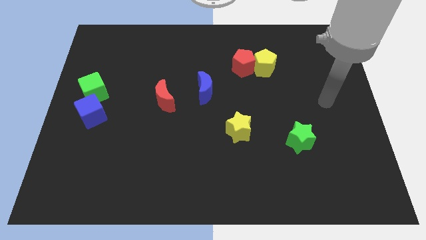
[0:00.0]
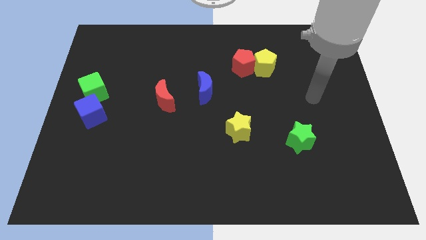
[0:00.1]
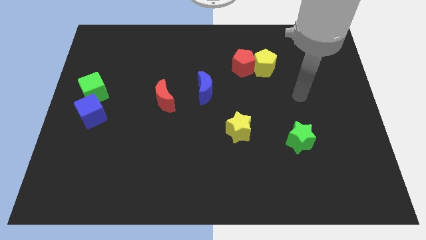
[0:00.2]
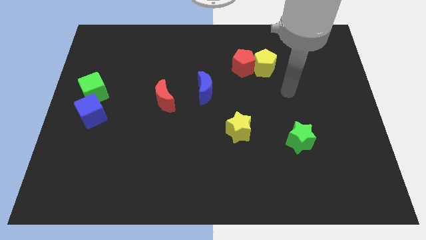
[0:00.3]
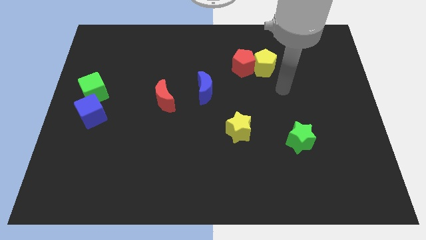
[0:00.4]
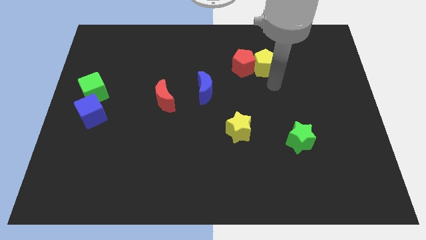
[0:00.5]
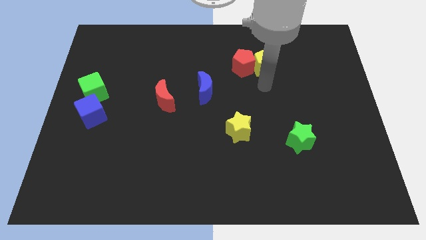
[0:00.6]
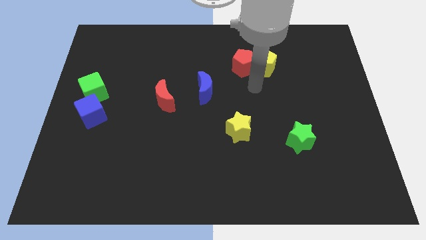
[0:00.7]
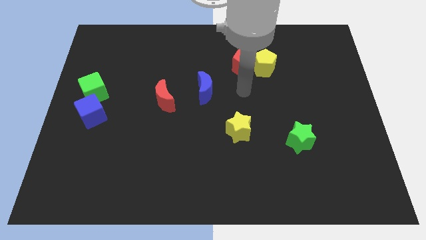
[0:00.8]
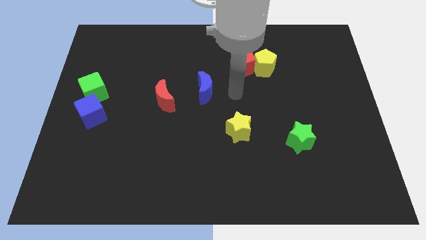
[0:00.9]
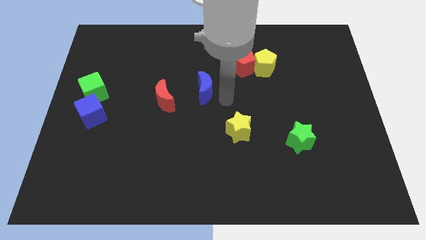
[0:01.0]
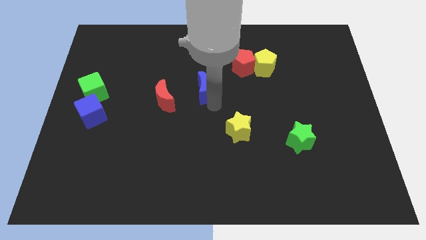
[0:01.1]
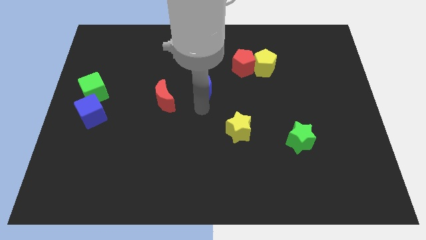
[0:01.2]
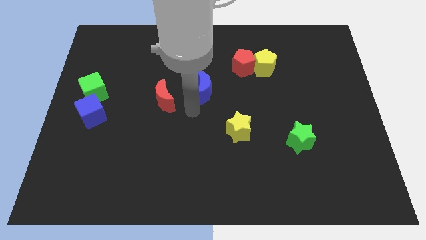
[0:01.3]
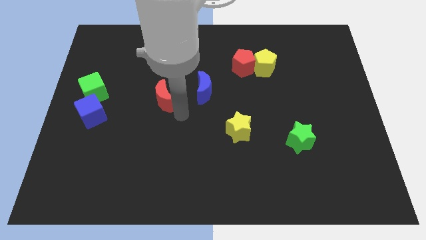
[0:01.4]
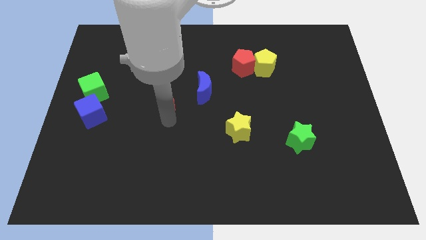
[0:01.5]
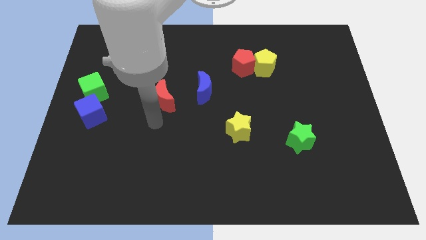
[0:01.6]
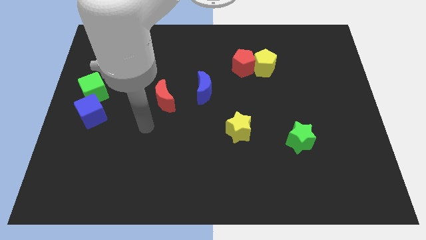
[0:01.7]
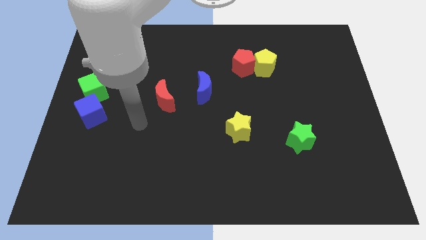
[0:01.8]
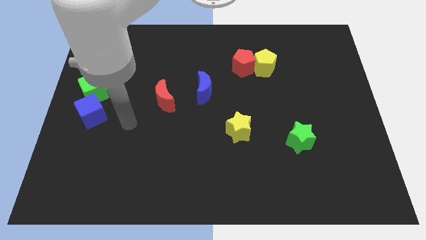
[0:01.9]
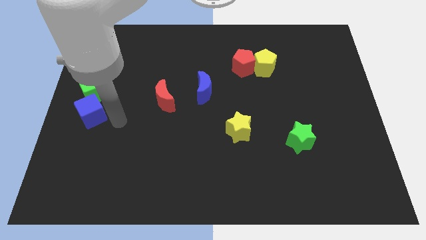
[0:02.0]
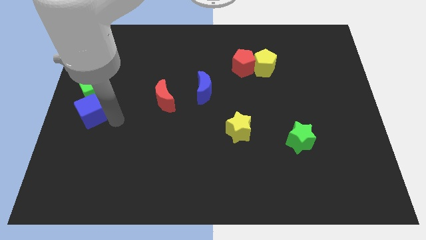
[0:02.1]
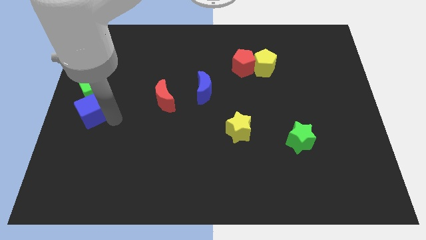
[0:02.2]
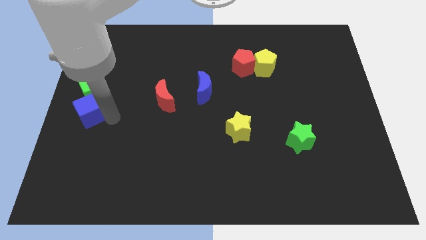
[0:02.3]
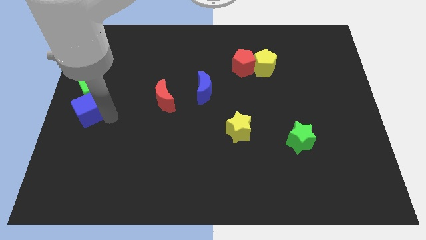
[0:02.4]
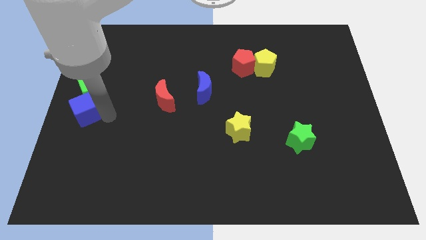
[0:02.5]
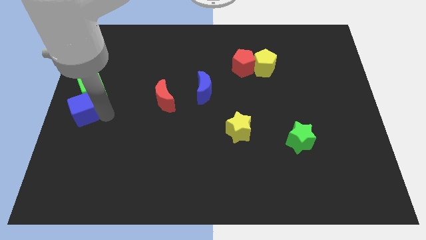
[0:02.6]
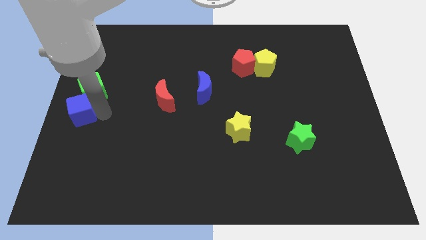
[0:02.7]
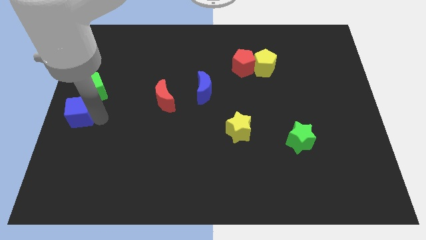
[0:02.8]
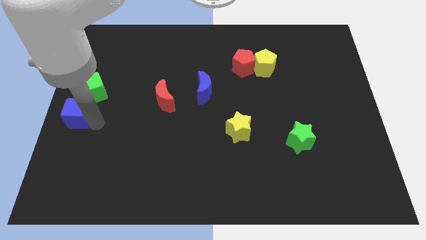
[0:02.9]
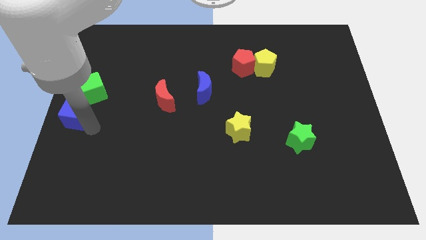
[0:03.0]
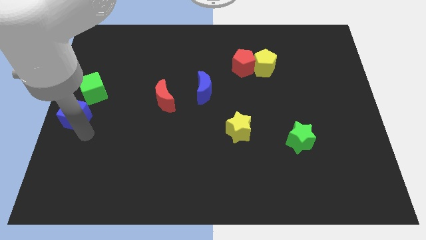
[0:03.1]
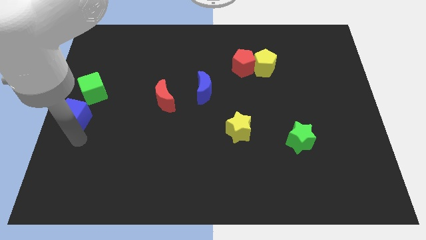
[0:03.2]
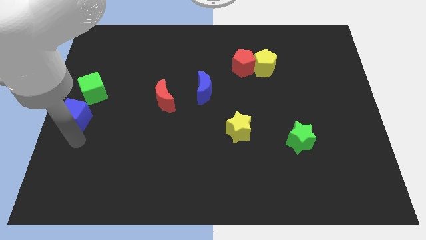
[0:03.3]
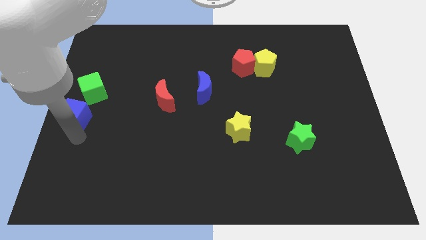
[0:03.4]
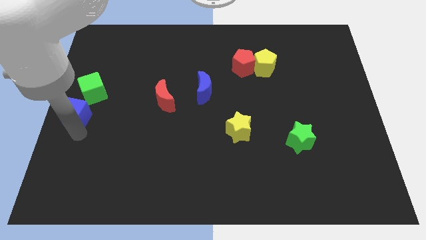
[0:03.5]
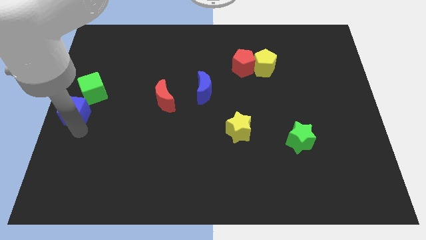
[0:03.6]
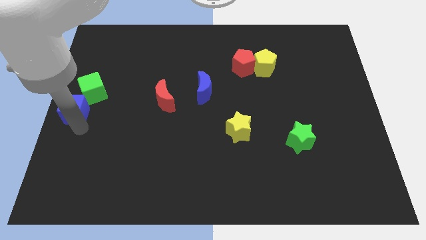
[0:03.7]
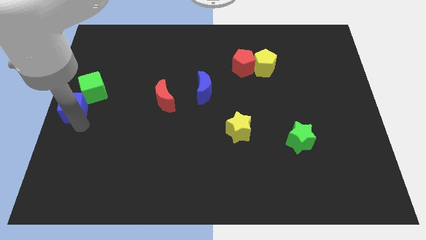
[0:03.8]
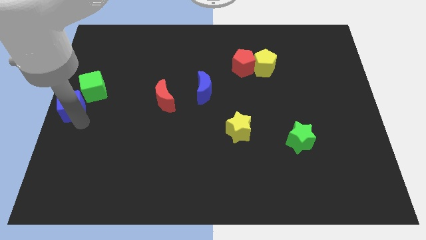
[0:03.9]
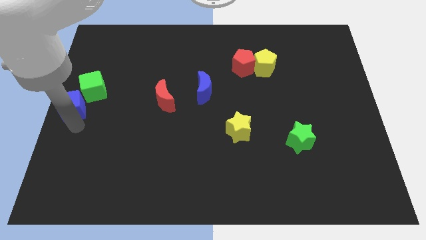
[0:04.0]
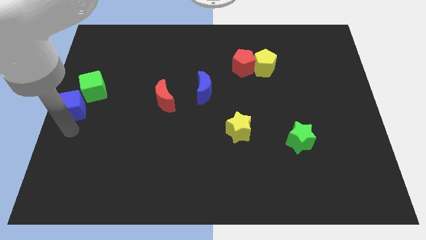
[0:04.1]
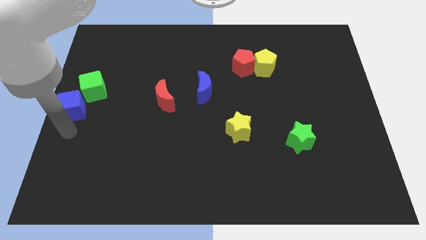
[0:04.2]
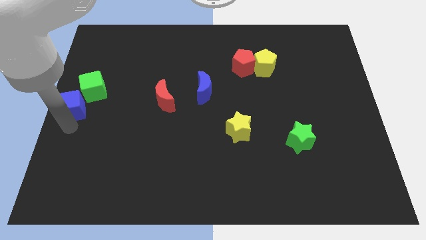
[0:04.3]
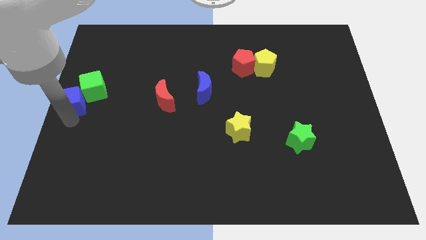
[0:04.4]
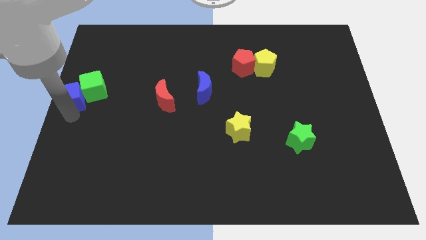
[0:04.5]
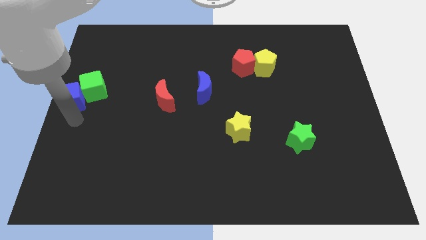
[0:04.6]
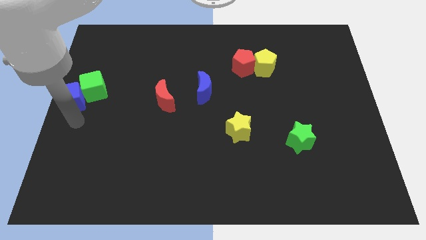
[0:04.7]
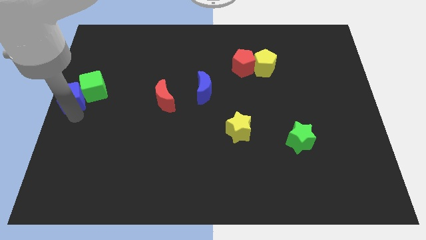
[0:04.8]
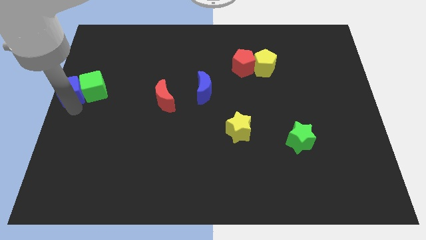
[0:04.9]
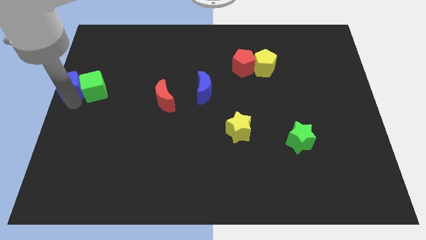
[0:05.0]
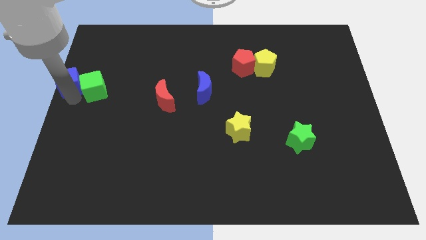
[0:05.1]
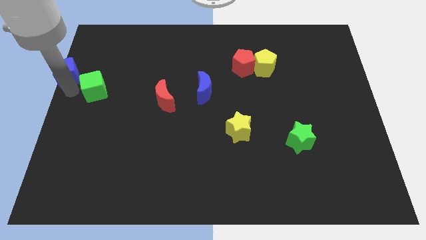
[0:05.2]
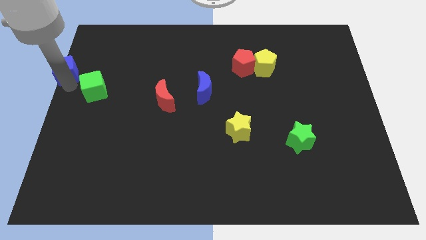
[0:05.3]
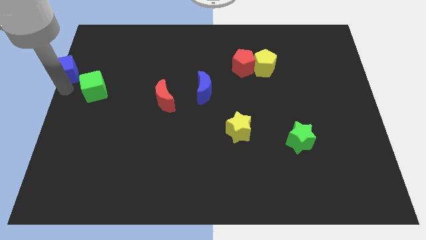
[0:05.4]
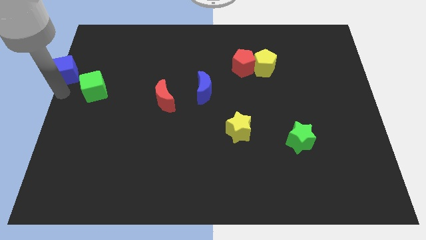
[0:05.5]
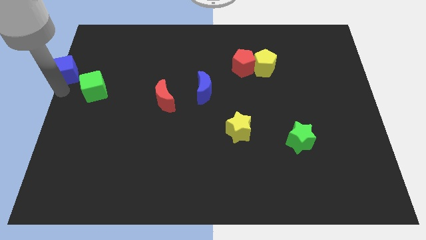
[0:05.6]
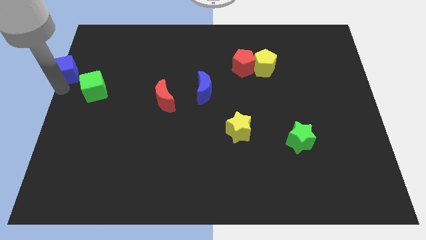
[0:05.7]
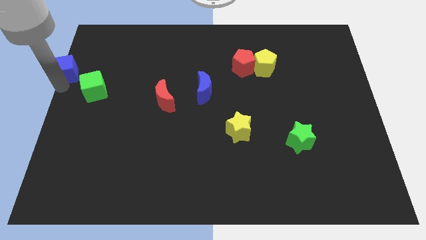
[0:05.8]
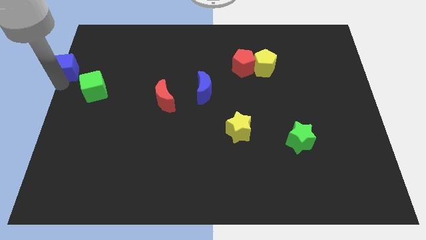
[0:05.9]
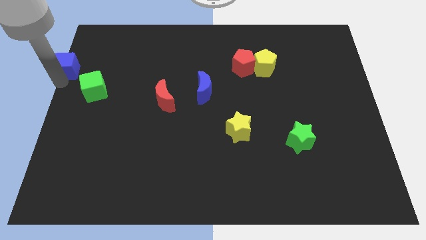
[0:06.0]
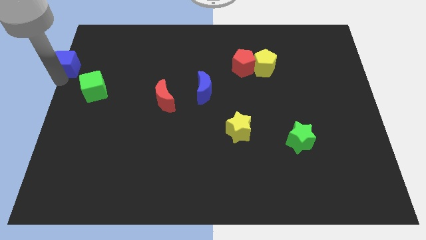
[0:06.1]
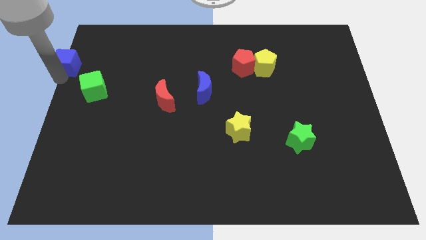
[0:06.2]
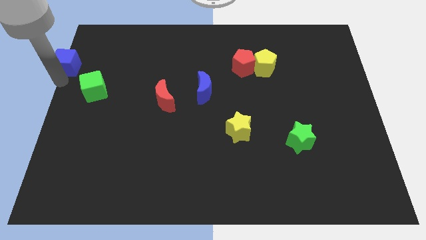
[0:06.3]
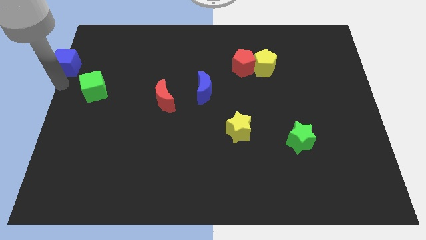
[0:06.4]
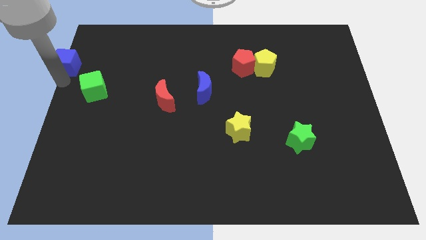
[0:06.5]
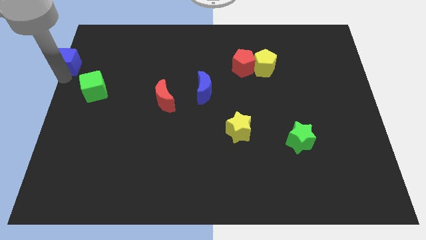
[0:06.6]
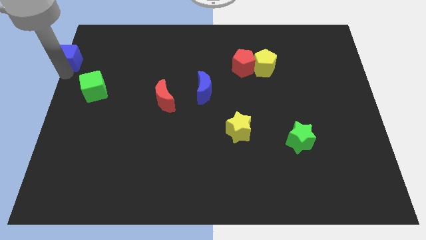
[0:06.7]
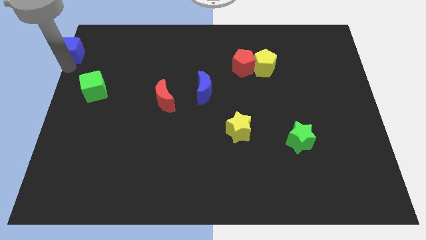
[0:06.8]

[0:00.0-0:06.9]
put the blue cube to the top left corner
